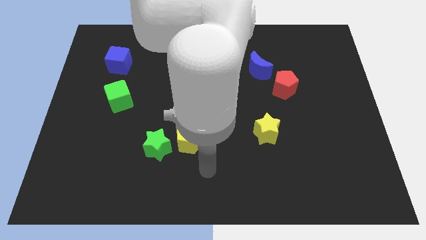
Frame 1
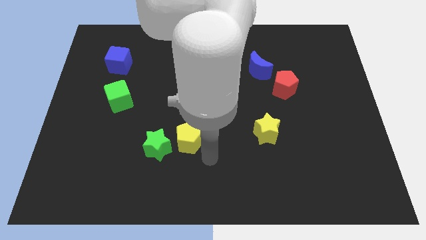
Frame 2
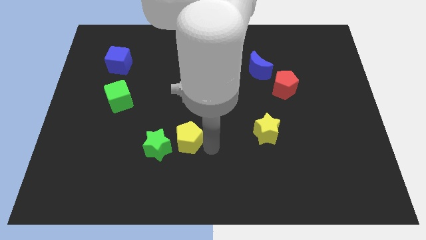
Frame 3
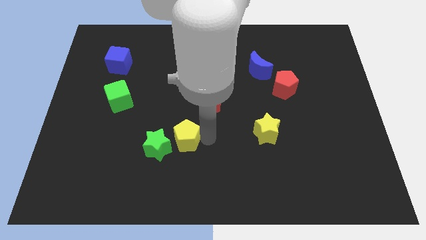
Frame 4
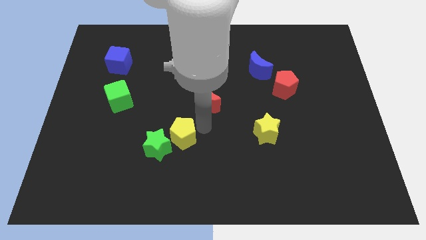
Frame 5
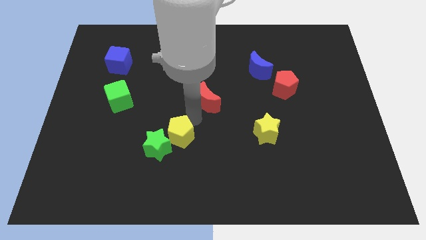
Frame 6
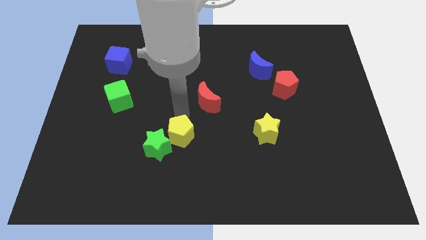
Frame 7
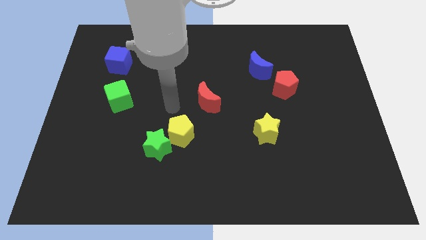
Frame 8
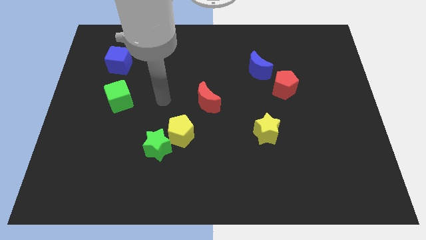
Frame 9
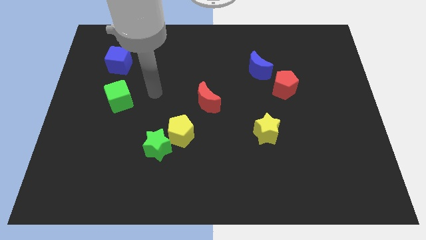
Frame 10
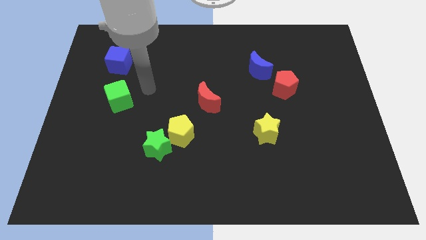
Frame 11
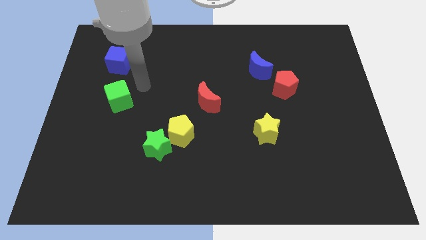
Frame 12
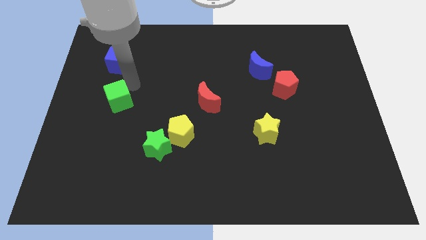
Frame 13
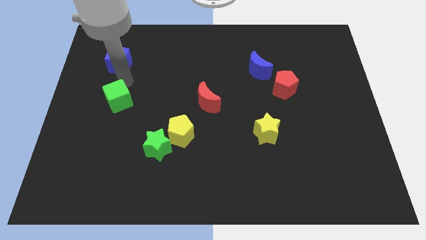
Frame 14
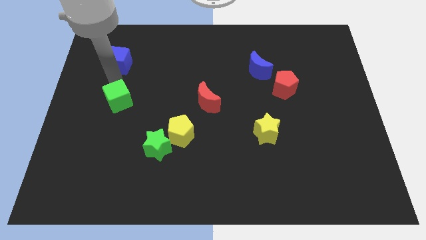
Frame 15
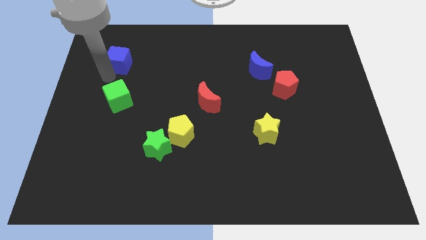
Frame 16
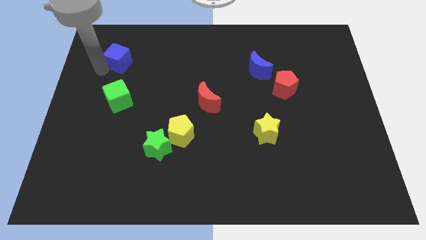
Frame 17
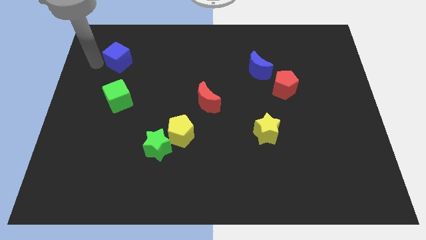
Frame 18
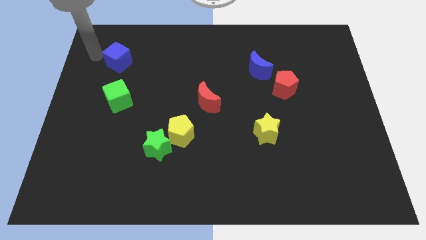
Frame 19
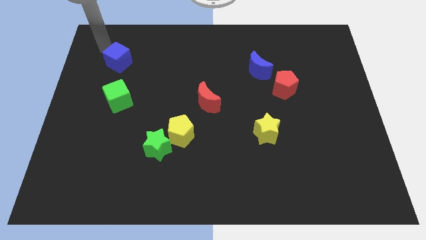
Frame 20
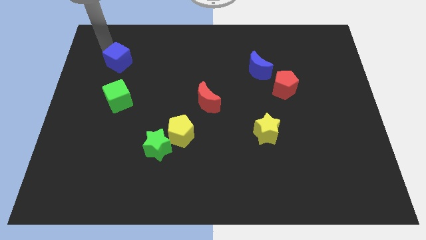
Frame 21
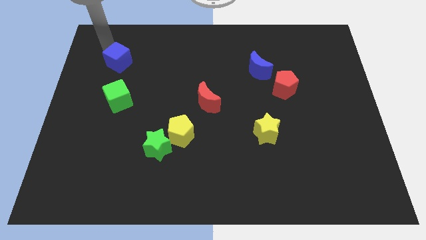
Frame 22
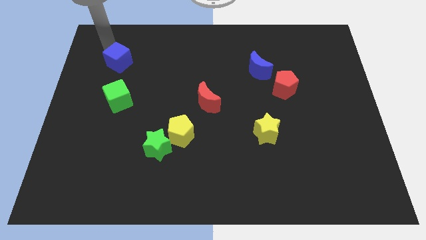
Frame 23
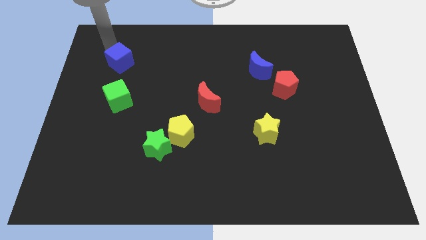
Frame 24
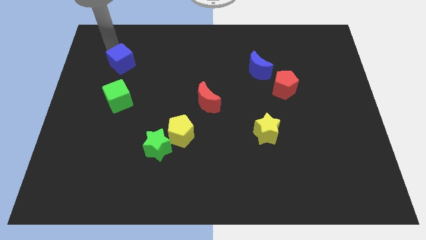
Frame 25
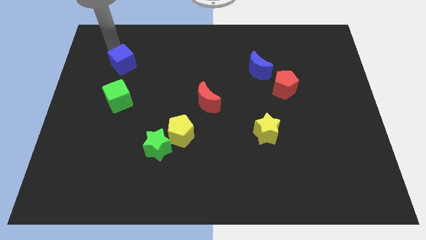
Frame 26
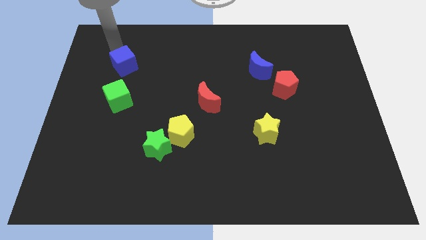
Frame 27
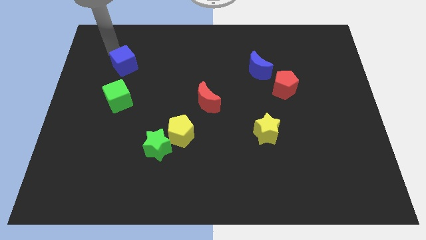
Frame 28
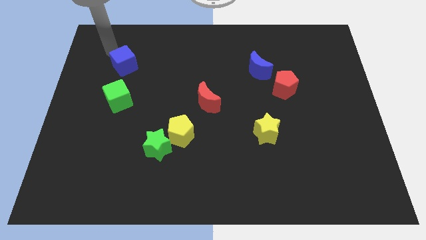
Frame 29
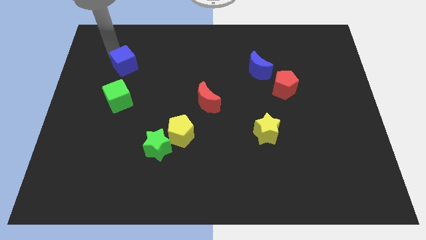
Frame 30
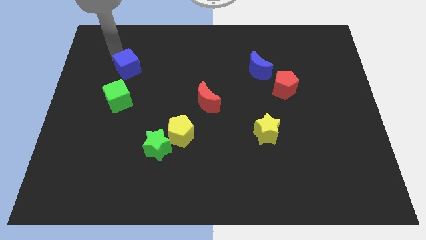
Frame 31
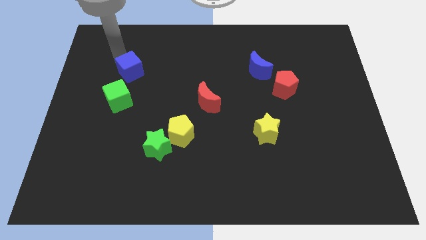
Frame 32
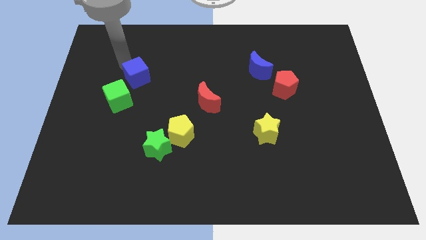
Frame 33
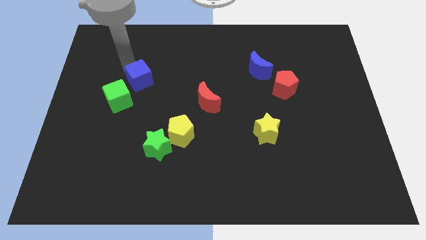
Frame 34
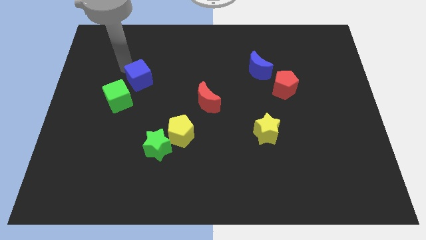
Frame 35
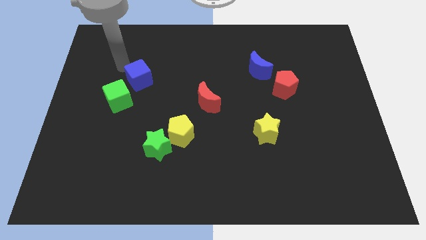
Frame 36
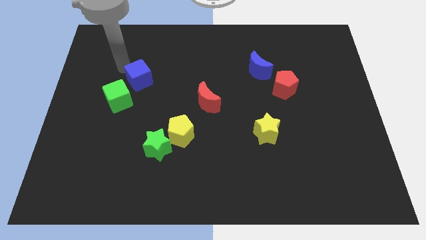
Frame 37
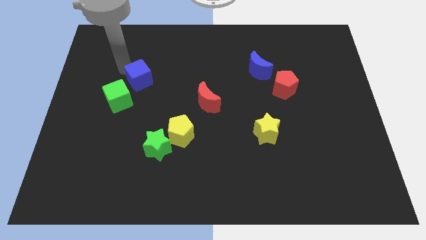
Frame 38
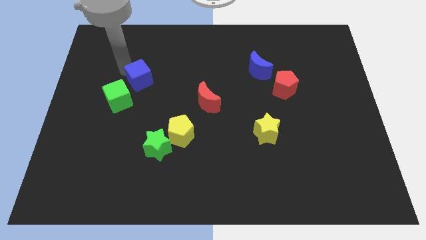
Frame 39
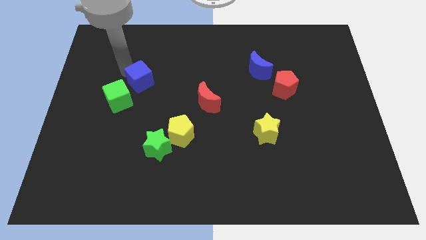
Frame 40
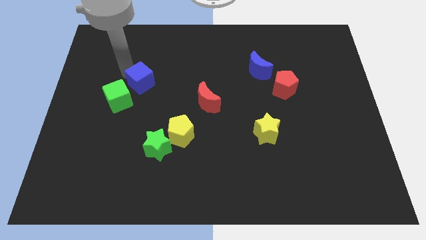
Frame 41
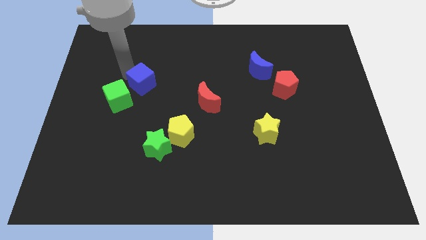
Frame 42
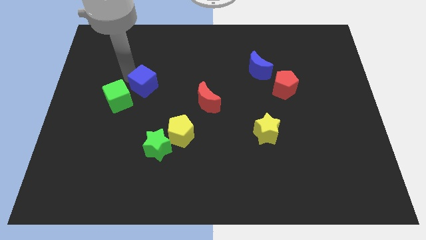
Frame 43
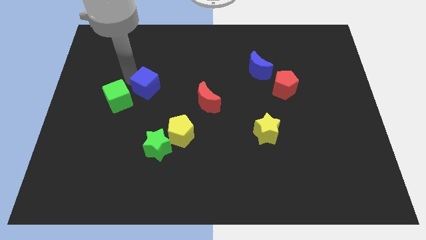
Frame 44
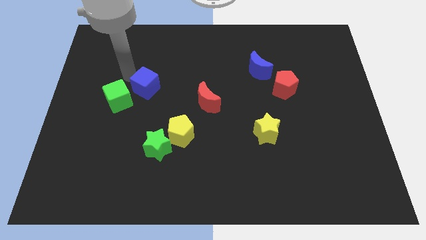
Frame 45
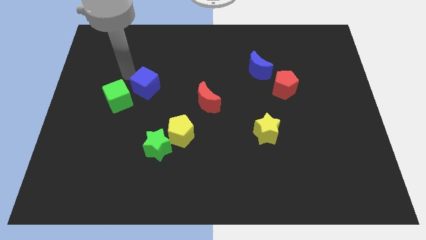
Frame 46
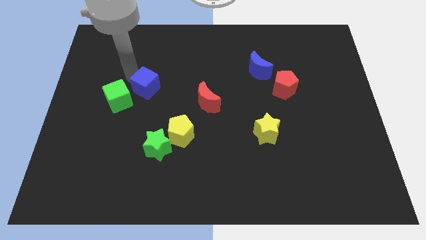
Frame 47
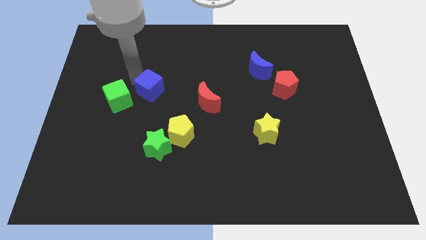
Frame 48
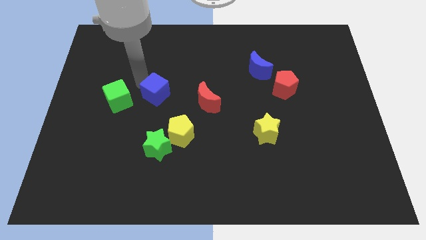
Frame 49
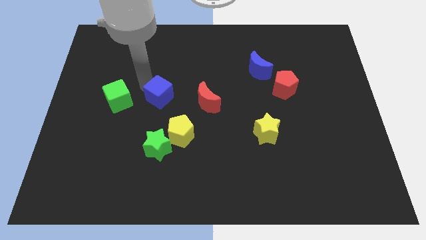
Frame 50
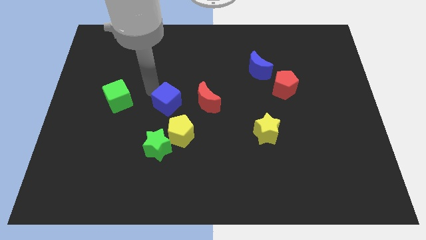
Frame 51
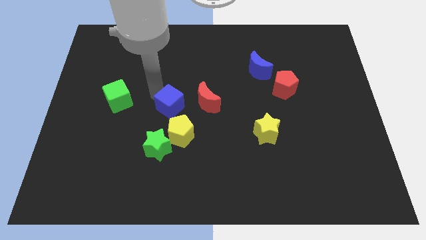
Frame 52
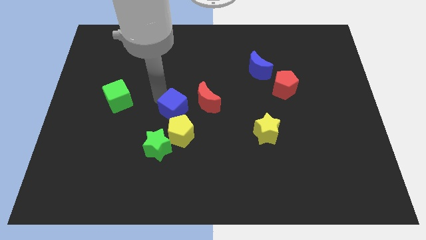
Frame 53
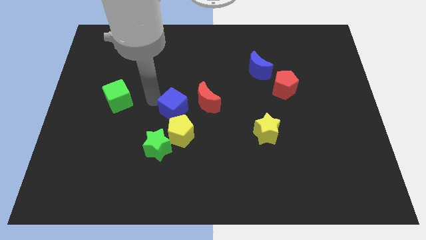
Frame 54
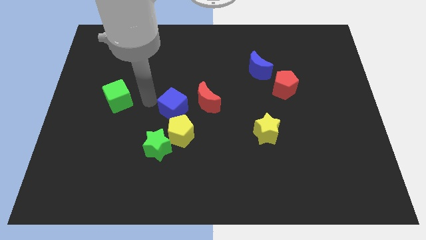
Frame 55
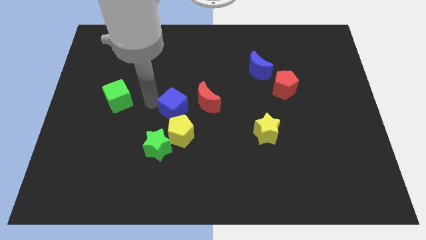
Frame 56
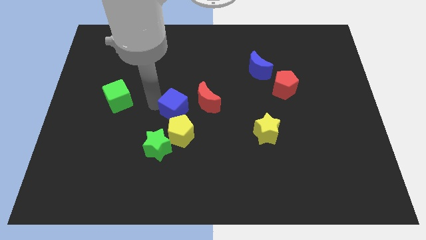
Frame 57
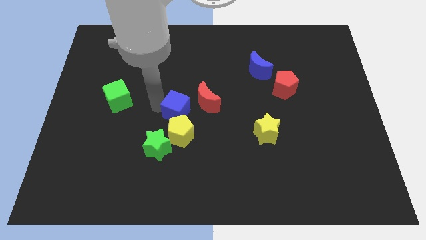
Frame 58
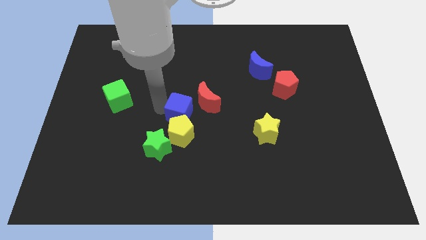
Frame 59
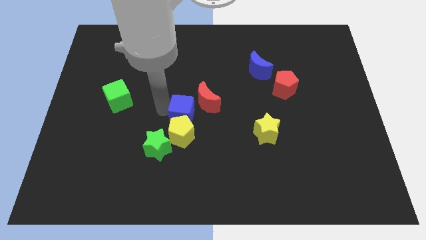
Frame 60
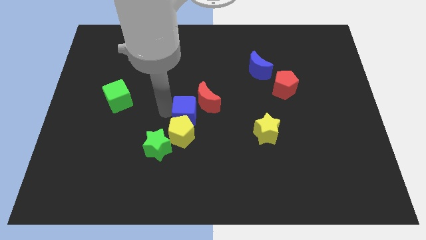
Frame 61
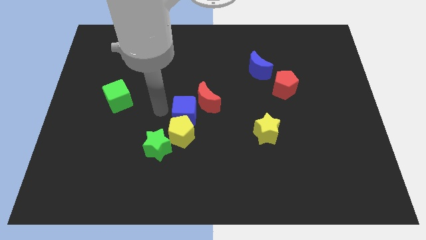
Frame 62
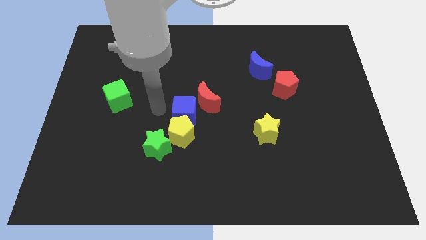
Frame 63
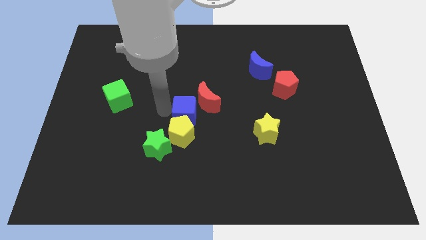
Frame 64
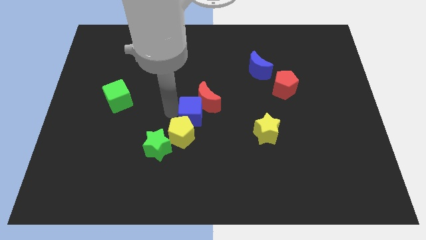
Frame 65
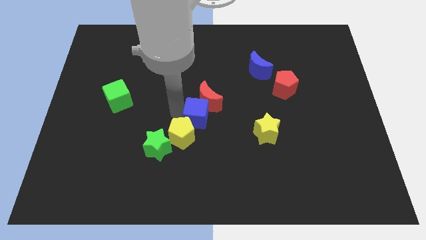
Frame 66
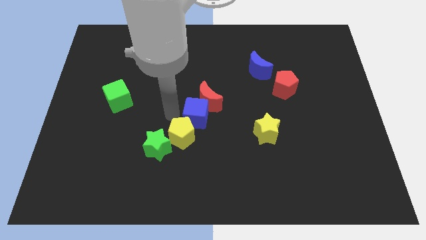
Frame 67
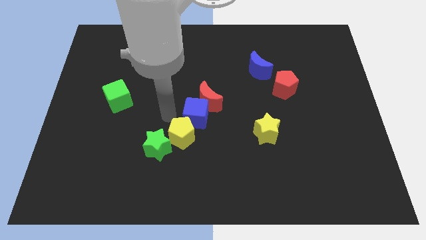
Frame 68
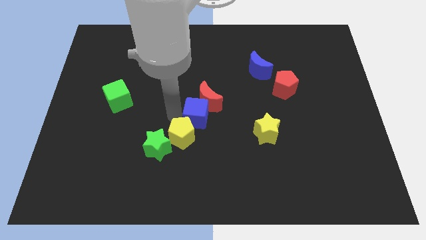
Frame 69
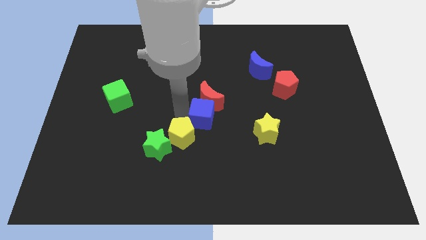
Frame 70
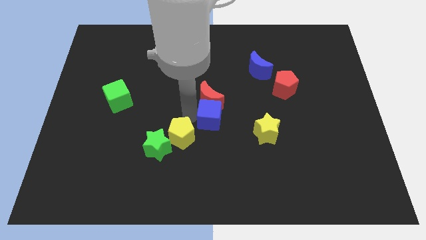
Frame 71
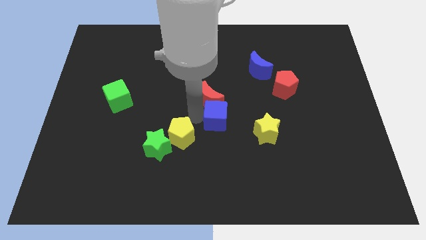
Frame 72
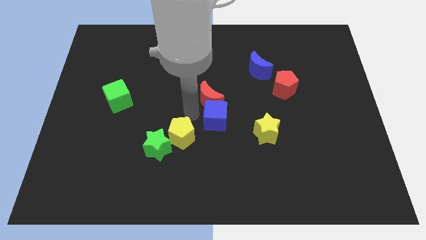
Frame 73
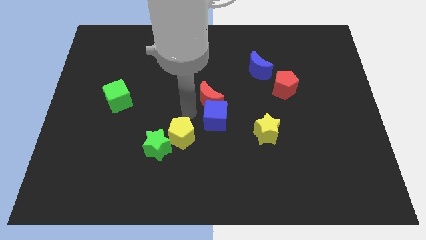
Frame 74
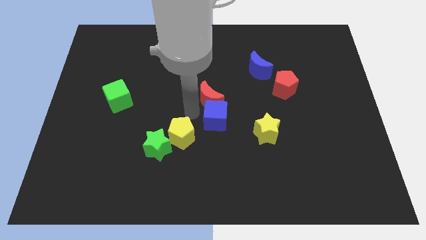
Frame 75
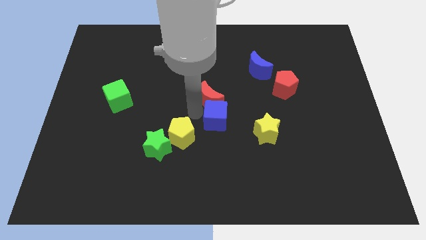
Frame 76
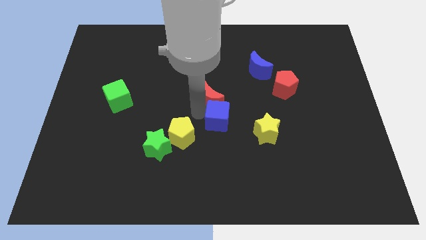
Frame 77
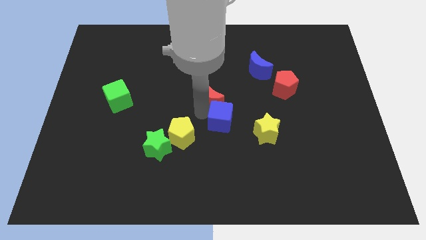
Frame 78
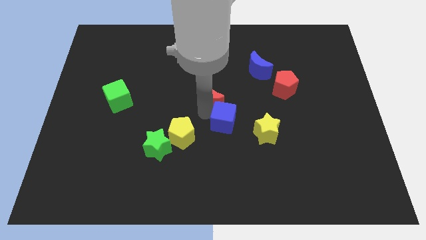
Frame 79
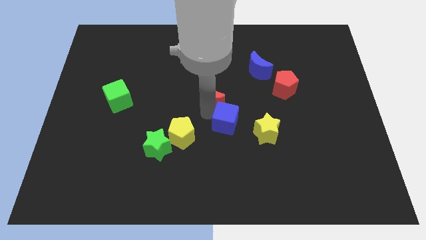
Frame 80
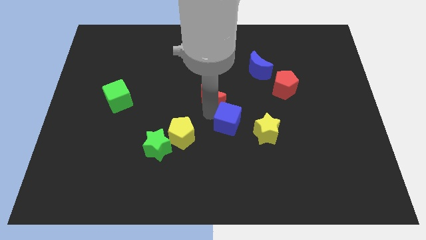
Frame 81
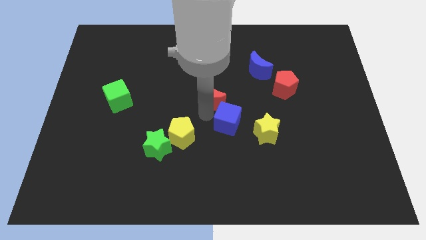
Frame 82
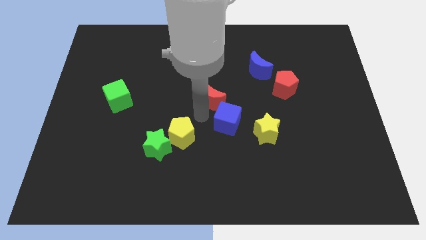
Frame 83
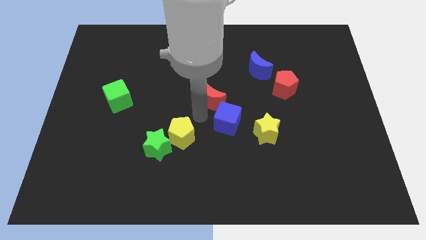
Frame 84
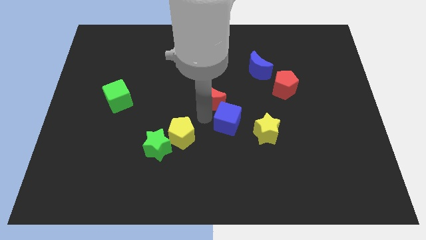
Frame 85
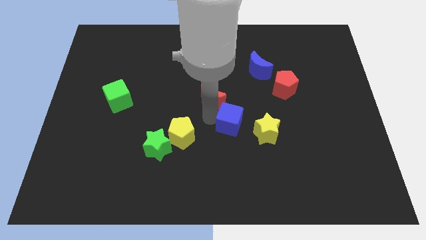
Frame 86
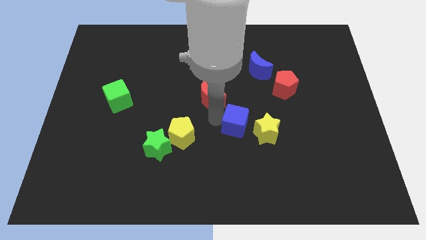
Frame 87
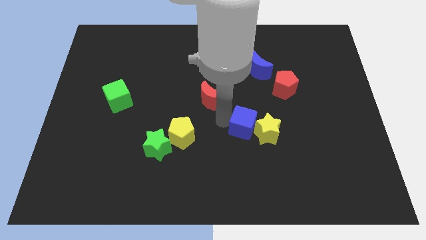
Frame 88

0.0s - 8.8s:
put the blue cube close to the yellow star
